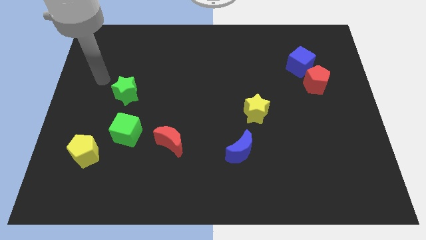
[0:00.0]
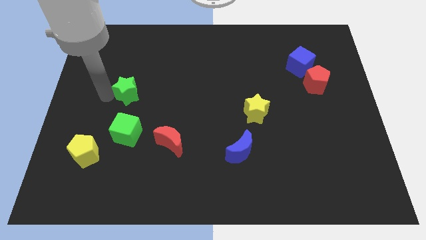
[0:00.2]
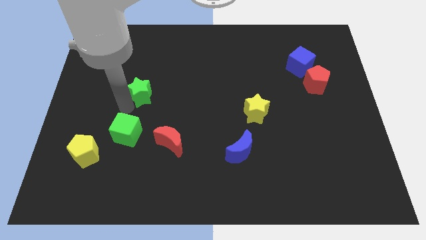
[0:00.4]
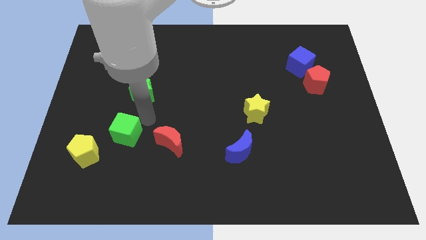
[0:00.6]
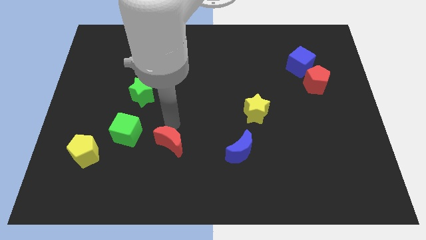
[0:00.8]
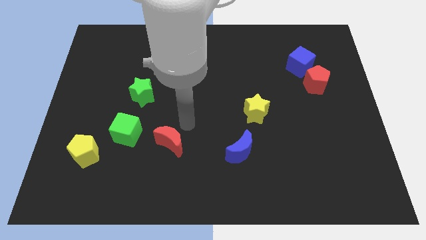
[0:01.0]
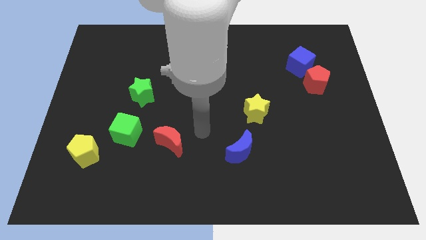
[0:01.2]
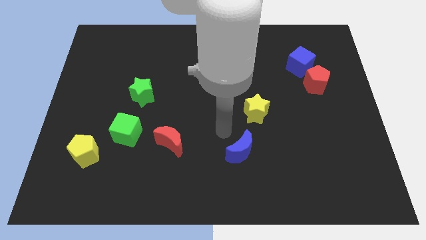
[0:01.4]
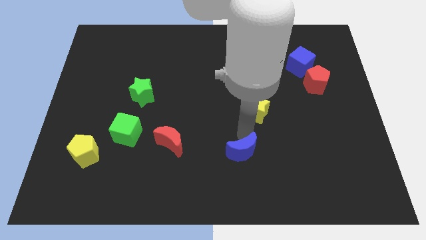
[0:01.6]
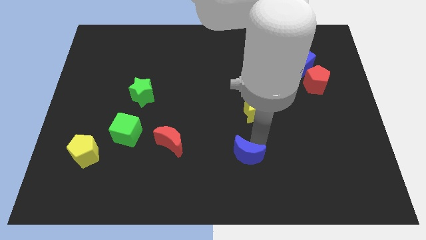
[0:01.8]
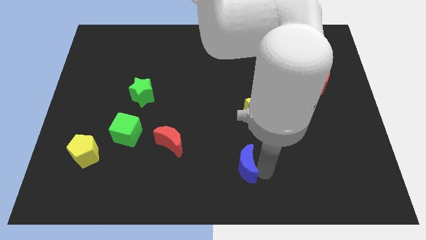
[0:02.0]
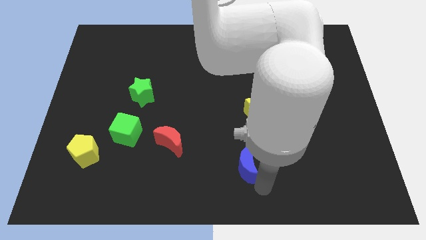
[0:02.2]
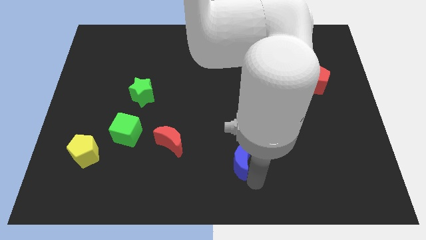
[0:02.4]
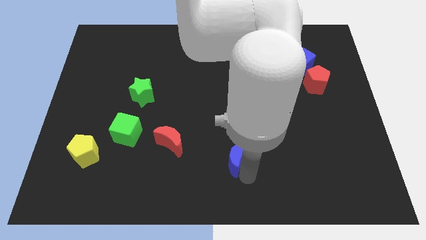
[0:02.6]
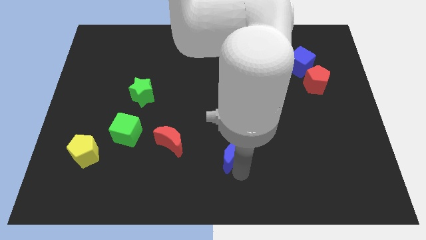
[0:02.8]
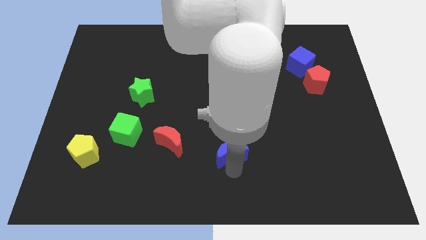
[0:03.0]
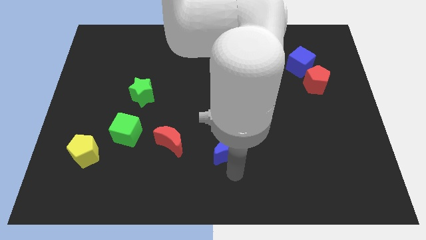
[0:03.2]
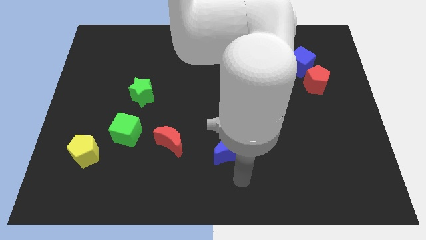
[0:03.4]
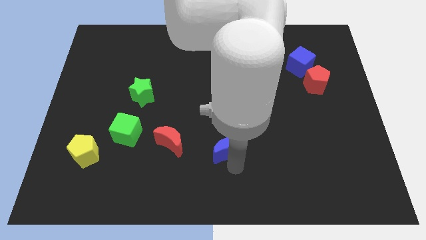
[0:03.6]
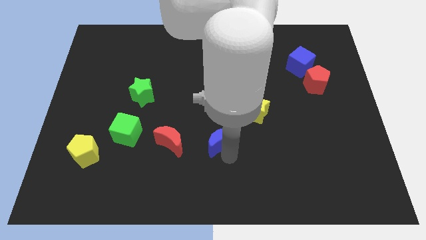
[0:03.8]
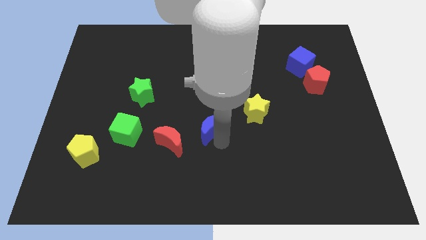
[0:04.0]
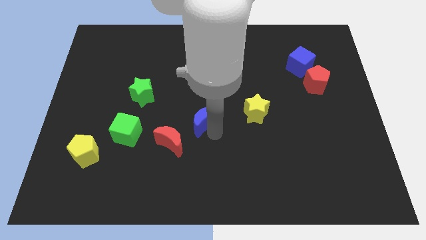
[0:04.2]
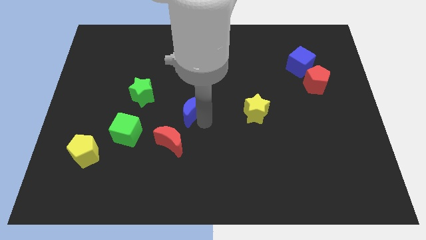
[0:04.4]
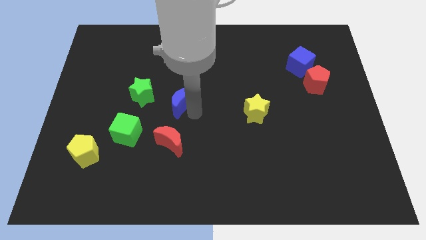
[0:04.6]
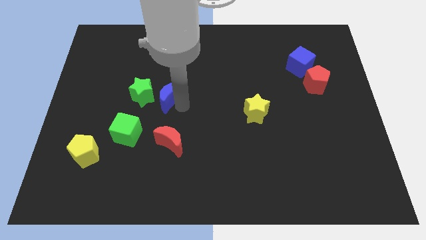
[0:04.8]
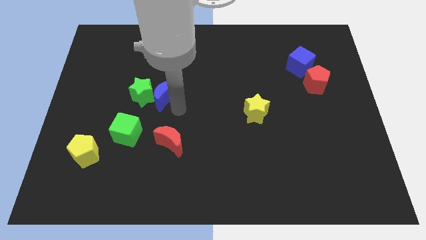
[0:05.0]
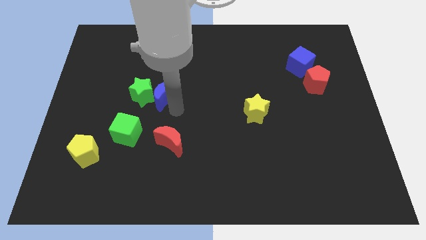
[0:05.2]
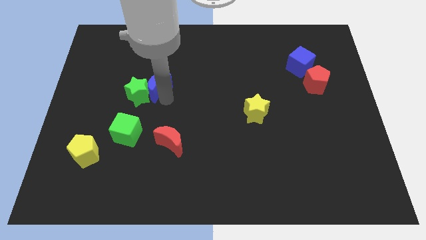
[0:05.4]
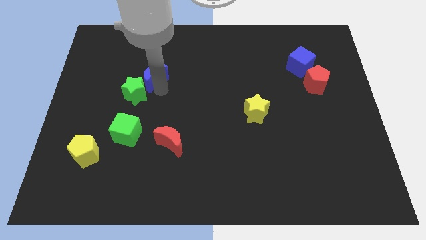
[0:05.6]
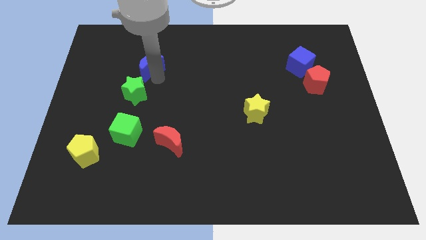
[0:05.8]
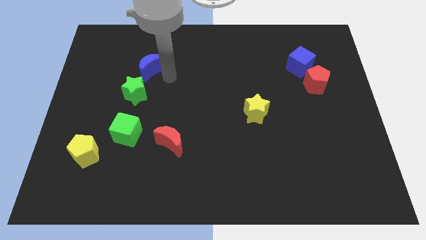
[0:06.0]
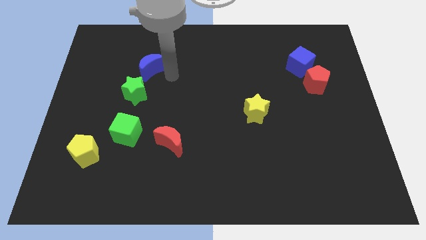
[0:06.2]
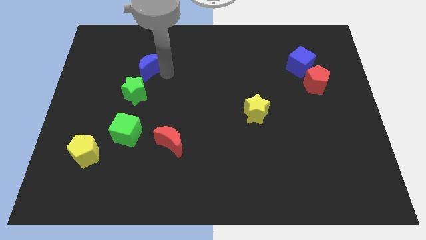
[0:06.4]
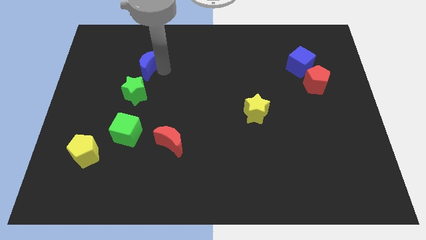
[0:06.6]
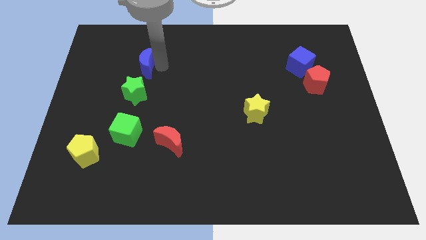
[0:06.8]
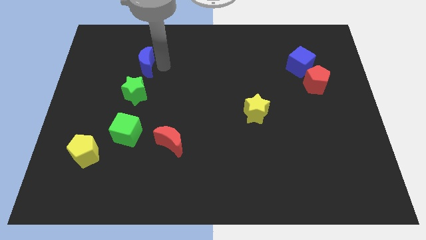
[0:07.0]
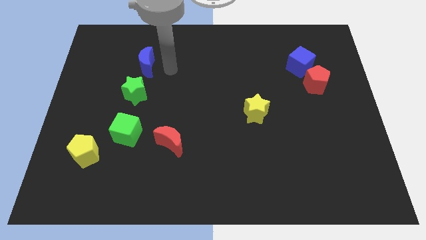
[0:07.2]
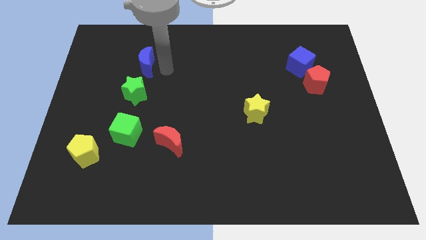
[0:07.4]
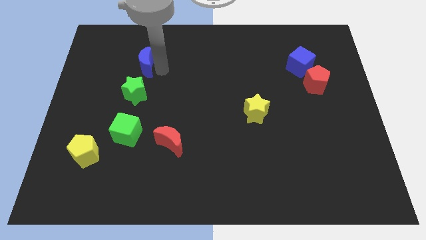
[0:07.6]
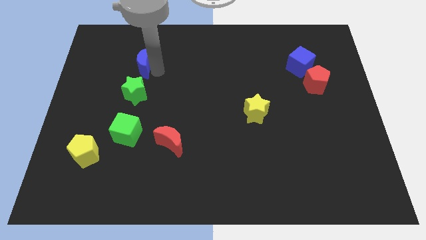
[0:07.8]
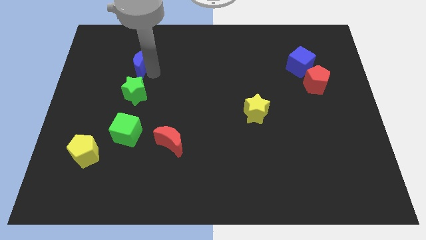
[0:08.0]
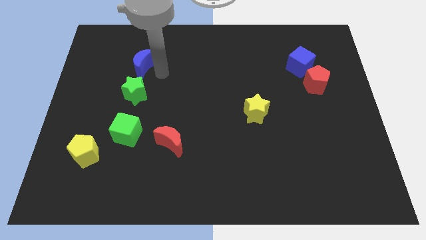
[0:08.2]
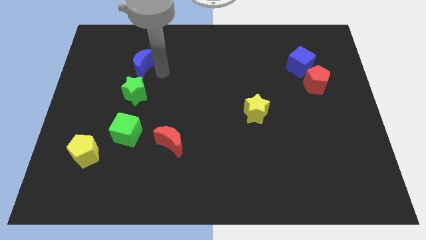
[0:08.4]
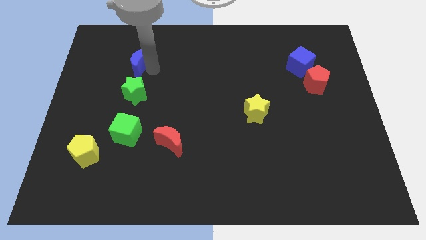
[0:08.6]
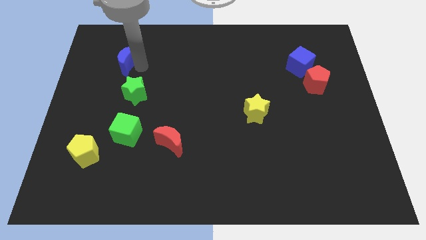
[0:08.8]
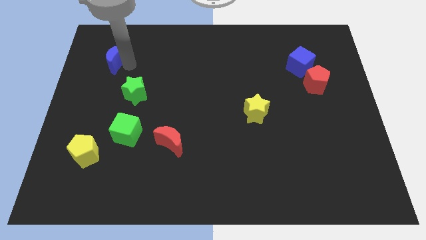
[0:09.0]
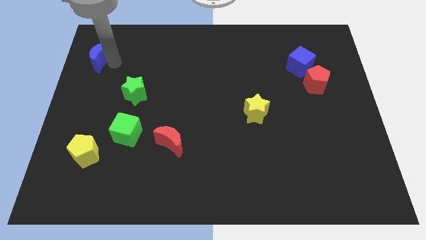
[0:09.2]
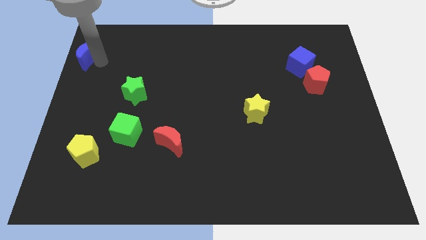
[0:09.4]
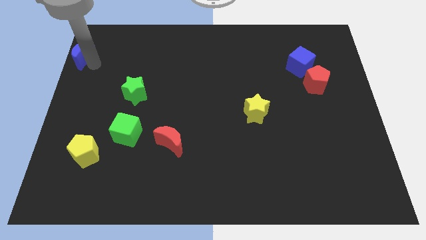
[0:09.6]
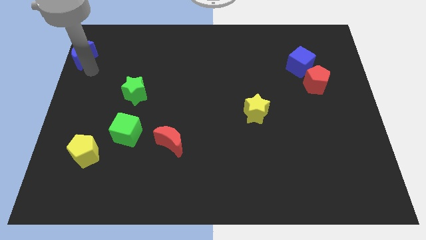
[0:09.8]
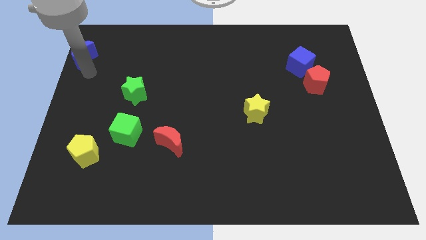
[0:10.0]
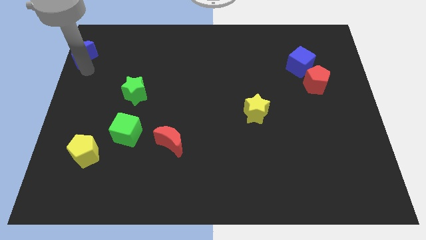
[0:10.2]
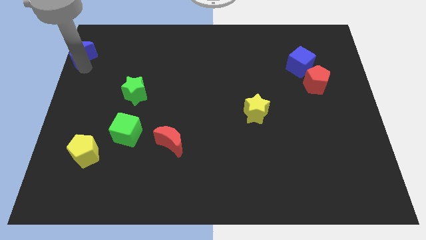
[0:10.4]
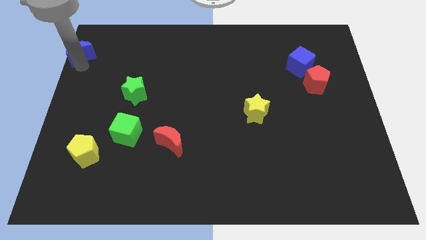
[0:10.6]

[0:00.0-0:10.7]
push the blue moon to the top left corner

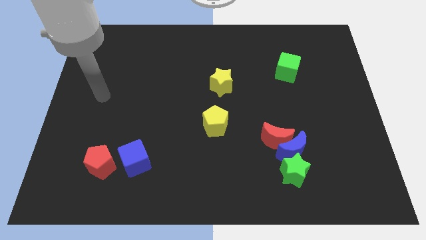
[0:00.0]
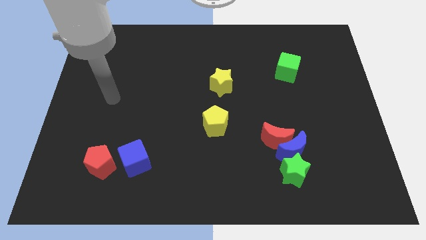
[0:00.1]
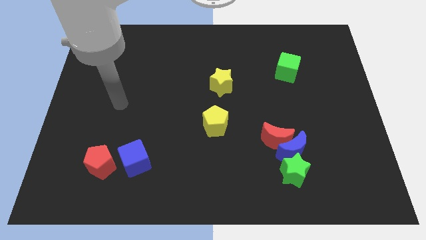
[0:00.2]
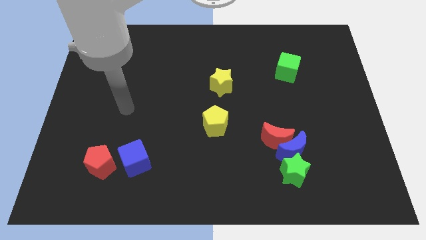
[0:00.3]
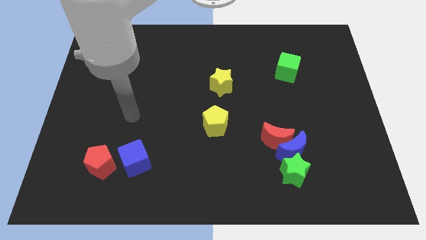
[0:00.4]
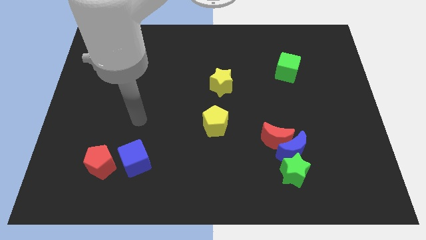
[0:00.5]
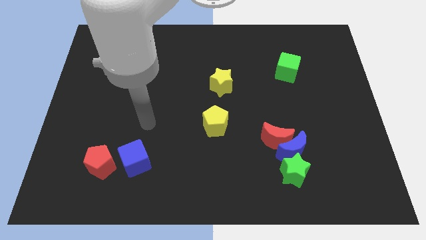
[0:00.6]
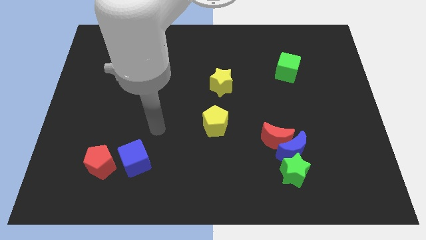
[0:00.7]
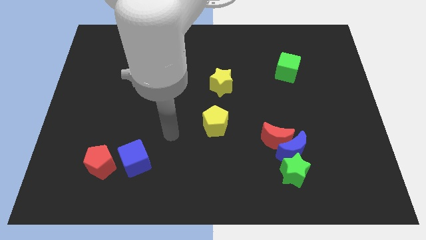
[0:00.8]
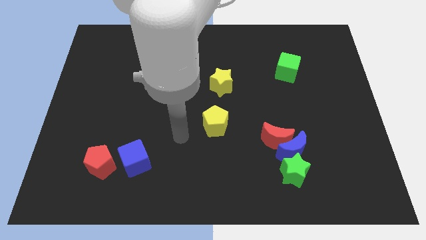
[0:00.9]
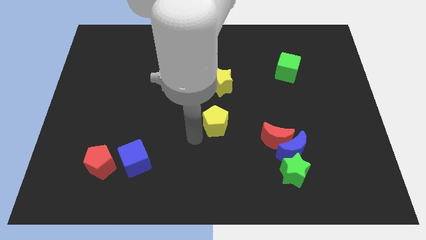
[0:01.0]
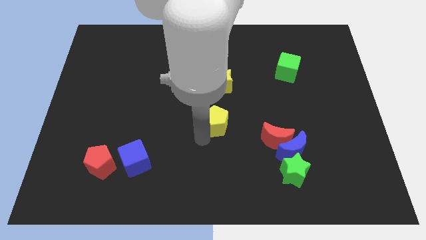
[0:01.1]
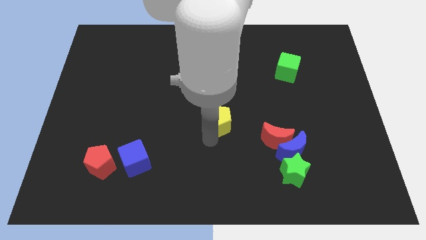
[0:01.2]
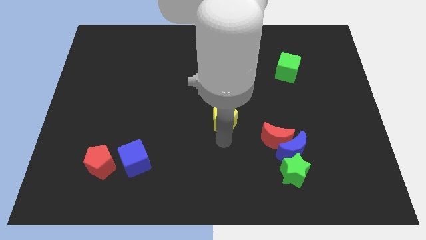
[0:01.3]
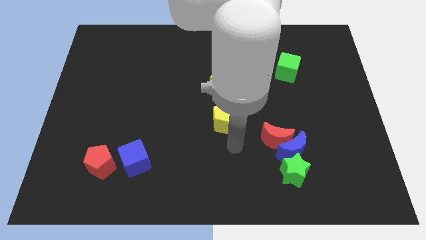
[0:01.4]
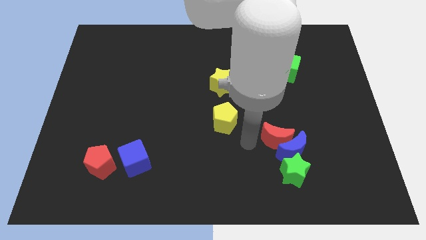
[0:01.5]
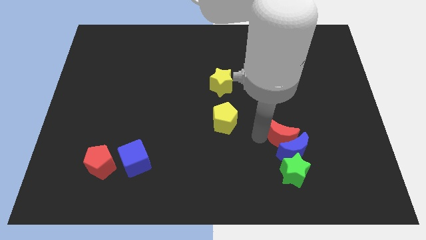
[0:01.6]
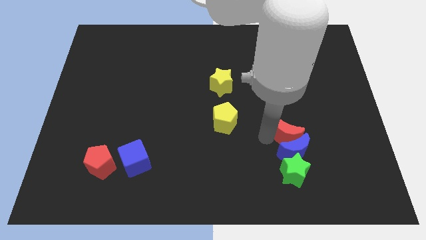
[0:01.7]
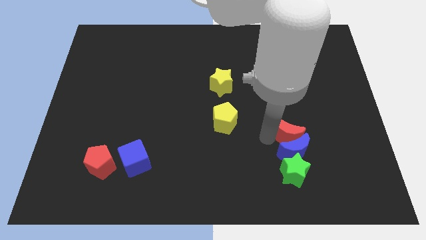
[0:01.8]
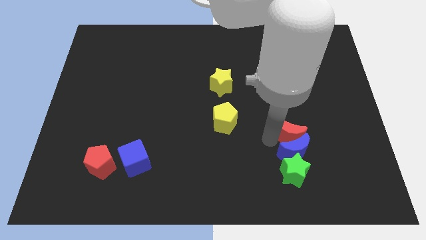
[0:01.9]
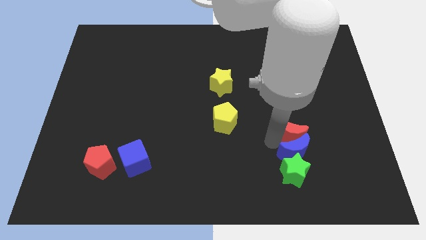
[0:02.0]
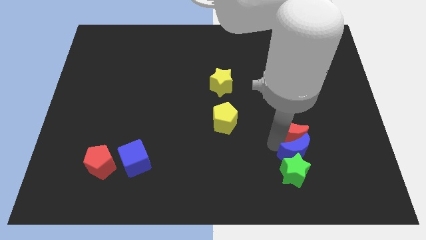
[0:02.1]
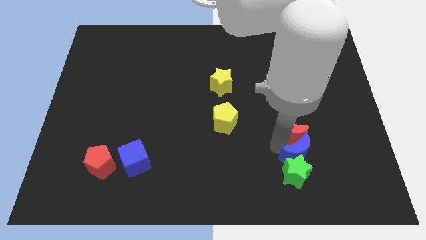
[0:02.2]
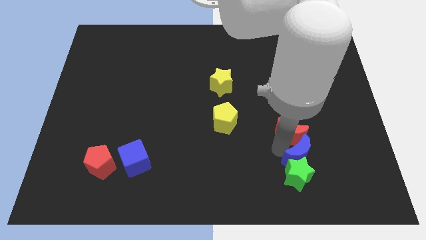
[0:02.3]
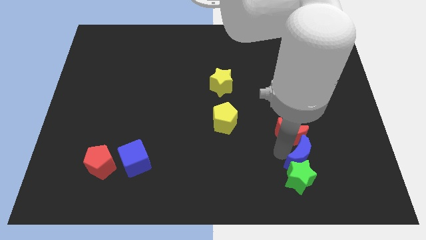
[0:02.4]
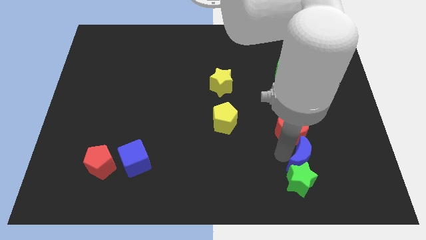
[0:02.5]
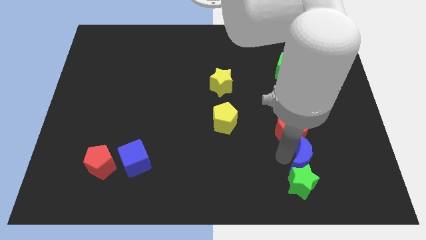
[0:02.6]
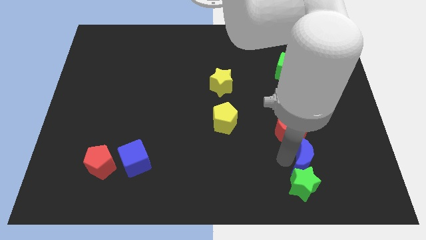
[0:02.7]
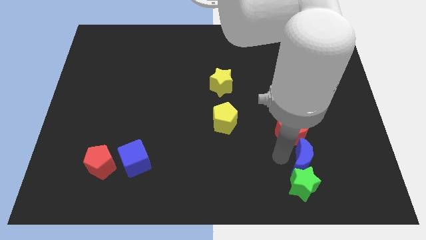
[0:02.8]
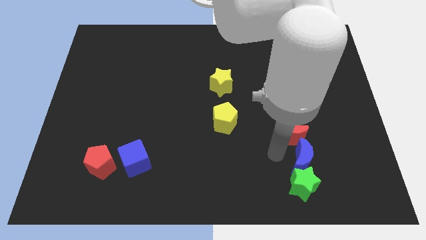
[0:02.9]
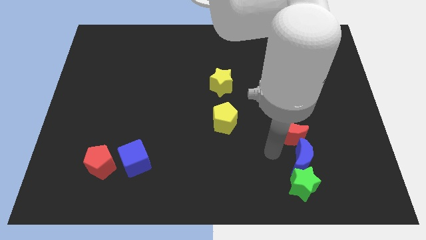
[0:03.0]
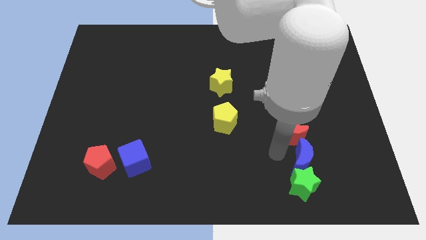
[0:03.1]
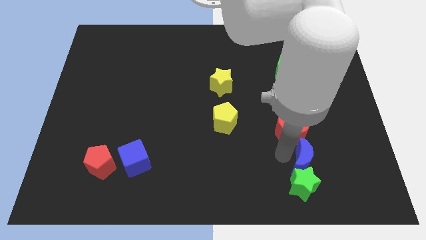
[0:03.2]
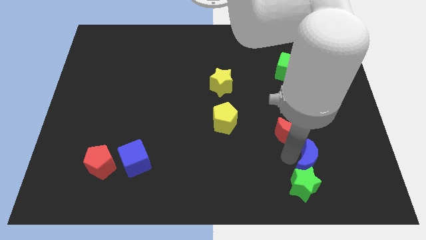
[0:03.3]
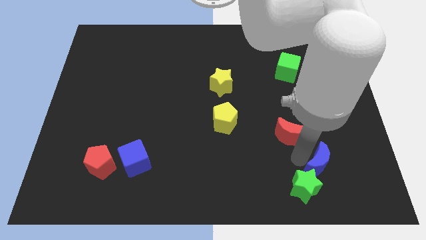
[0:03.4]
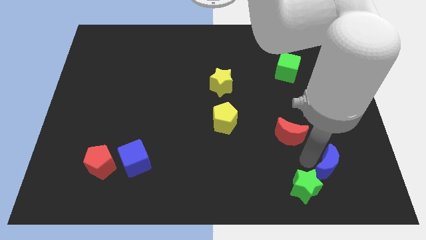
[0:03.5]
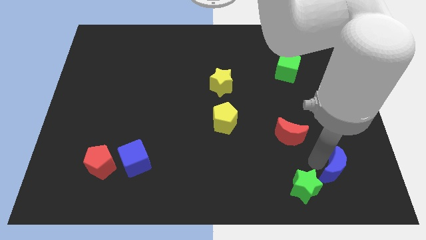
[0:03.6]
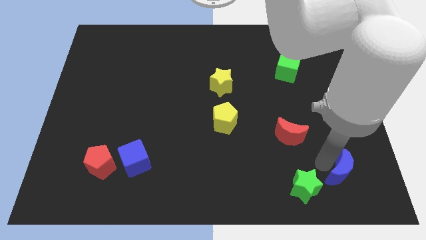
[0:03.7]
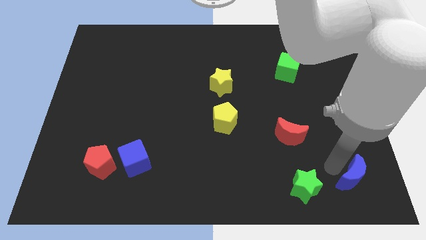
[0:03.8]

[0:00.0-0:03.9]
push the blue moon to the bottom right corner
